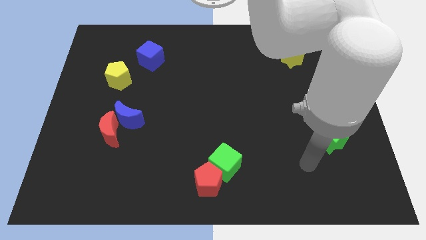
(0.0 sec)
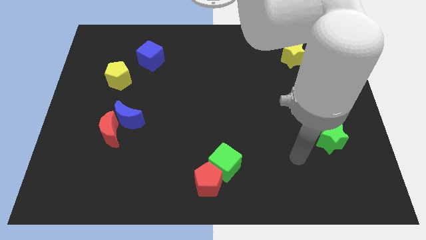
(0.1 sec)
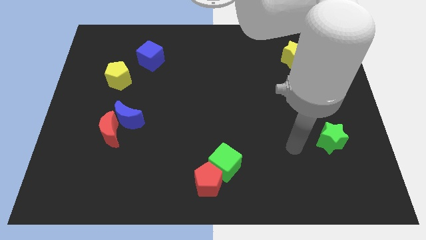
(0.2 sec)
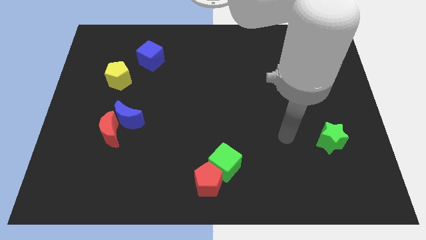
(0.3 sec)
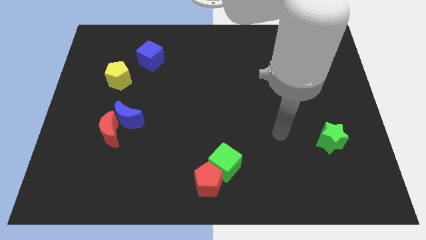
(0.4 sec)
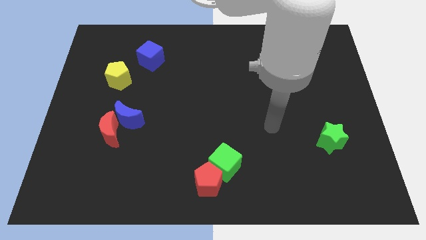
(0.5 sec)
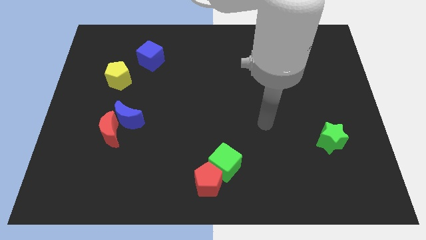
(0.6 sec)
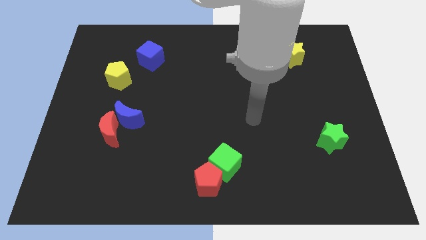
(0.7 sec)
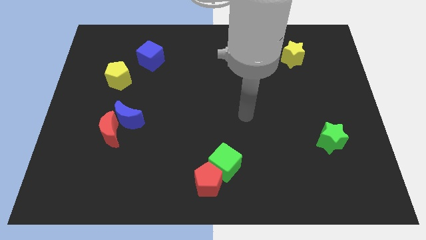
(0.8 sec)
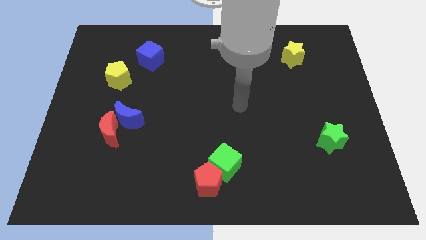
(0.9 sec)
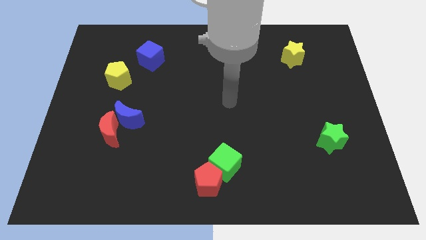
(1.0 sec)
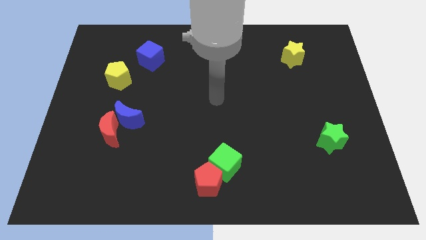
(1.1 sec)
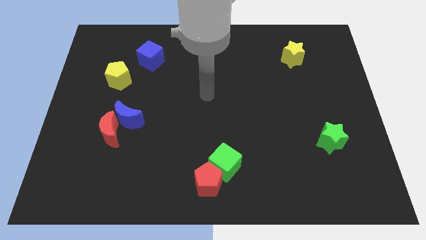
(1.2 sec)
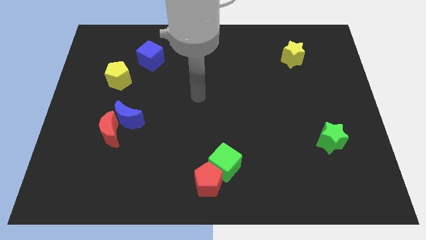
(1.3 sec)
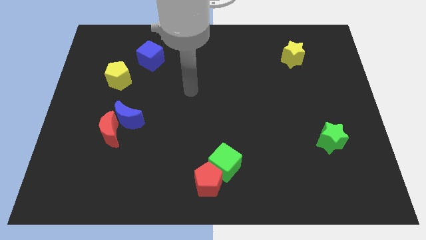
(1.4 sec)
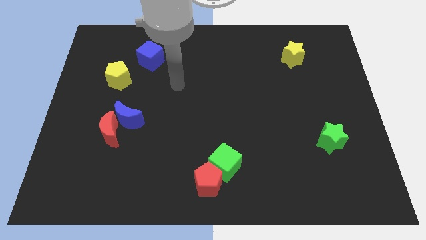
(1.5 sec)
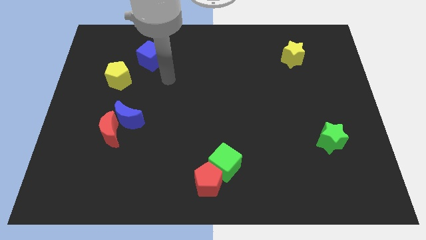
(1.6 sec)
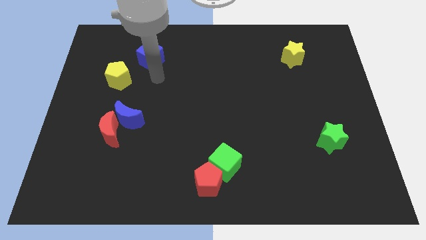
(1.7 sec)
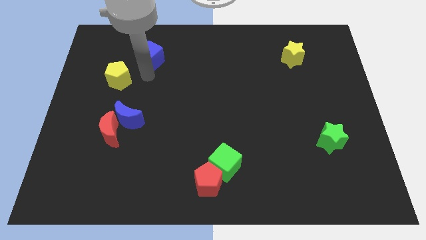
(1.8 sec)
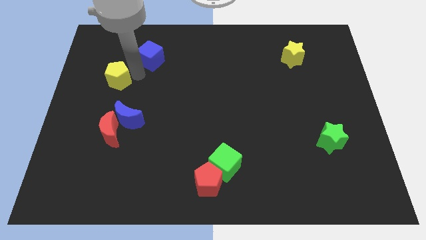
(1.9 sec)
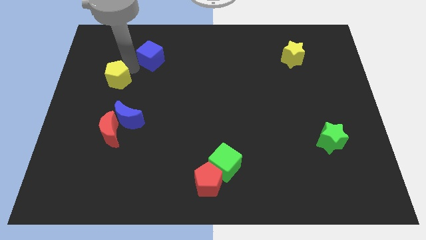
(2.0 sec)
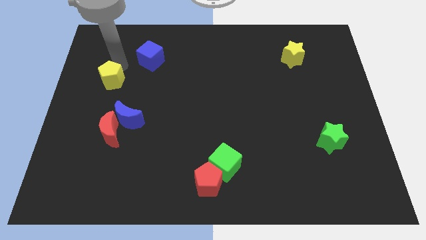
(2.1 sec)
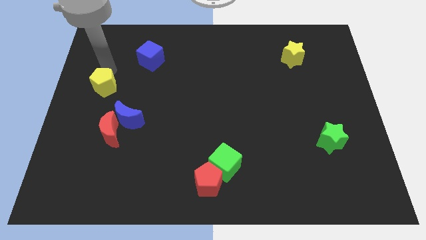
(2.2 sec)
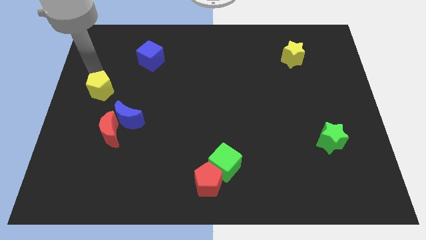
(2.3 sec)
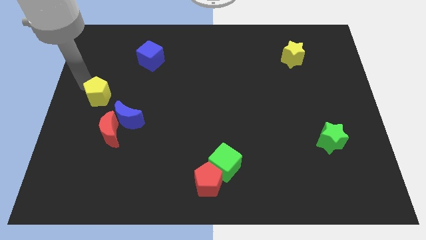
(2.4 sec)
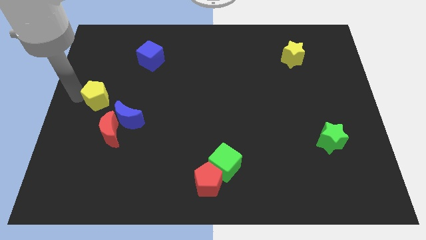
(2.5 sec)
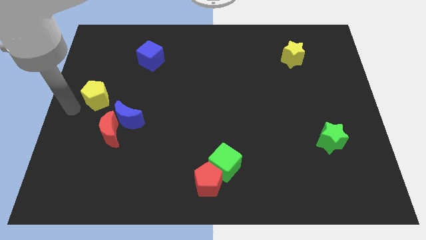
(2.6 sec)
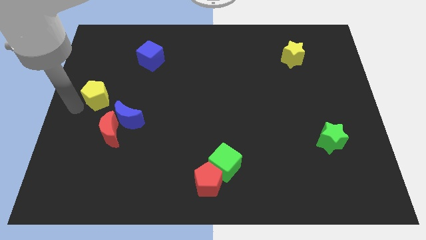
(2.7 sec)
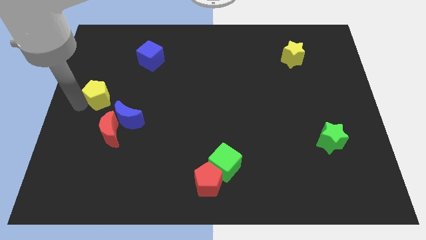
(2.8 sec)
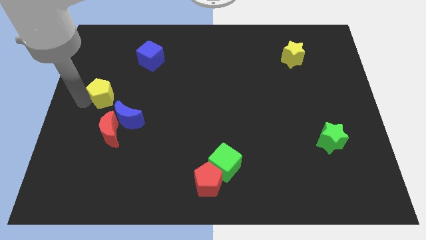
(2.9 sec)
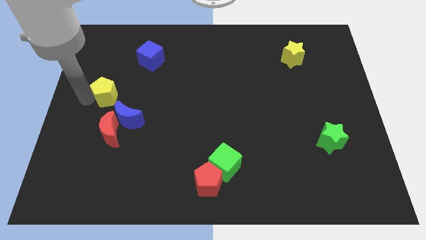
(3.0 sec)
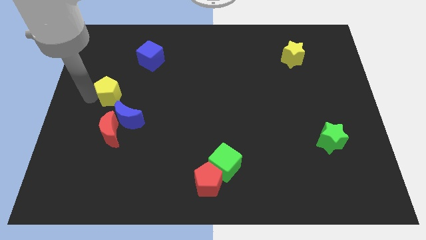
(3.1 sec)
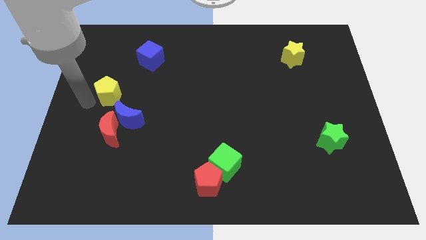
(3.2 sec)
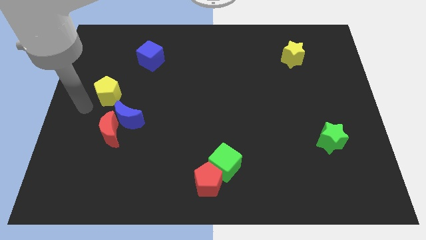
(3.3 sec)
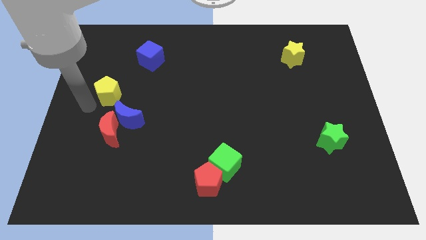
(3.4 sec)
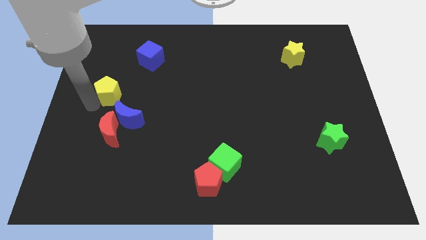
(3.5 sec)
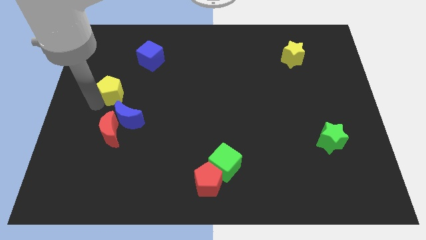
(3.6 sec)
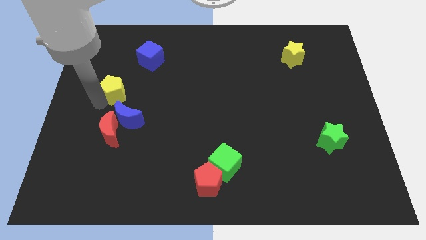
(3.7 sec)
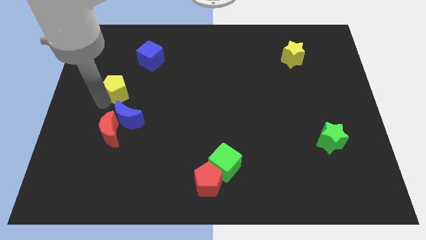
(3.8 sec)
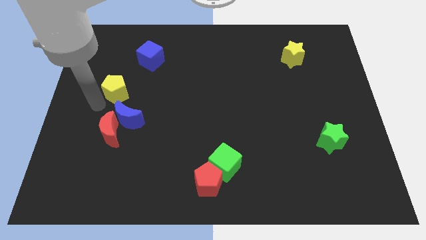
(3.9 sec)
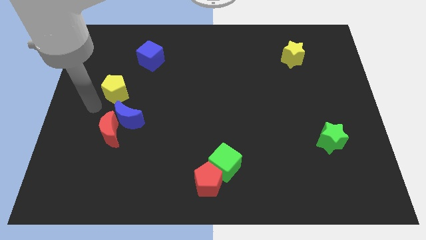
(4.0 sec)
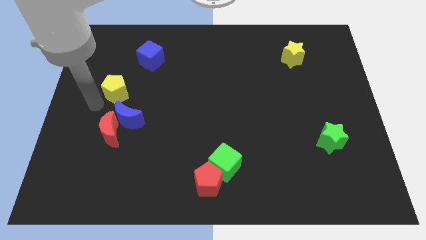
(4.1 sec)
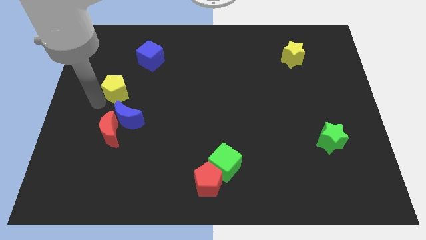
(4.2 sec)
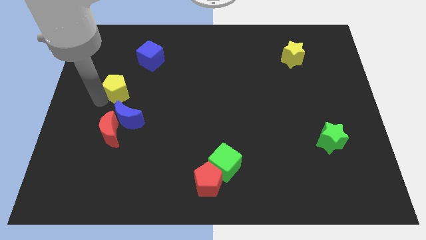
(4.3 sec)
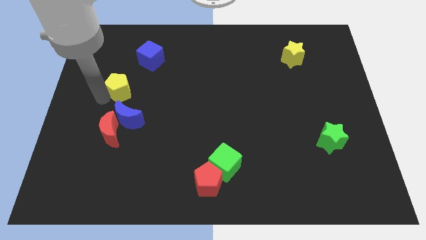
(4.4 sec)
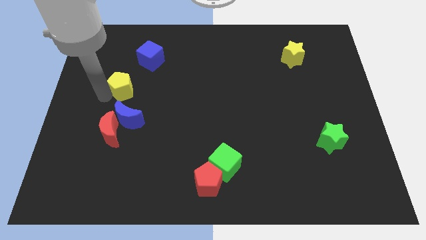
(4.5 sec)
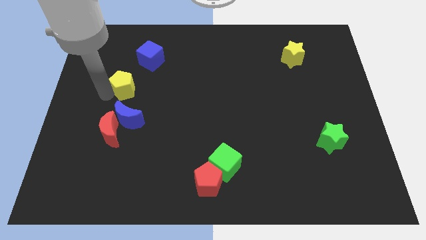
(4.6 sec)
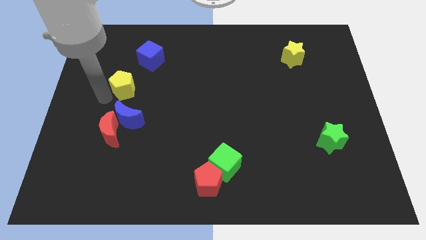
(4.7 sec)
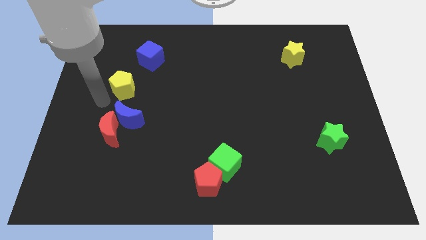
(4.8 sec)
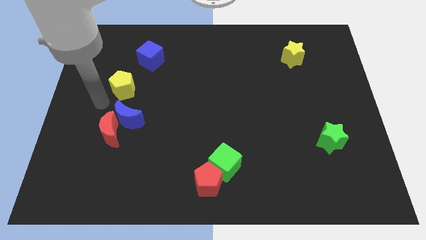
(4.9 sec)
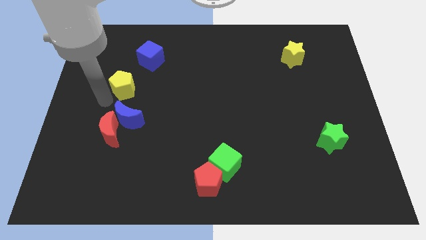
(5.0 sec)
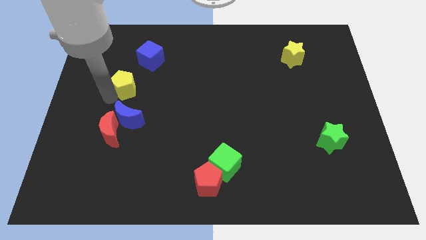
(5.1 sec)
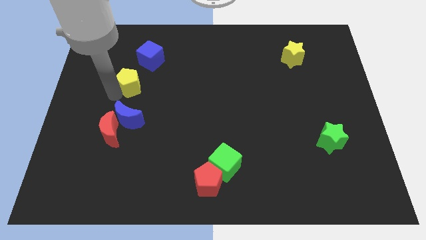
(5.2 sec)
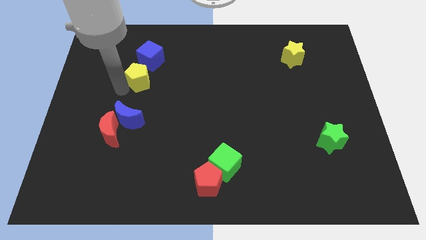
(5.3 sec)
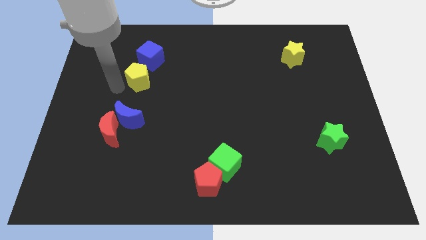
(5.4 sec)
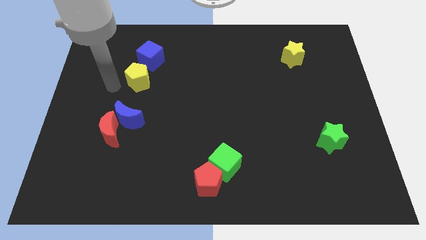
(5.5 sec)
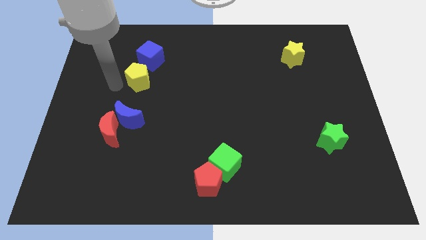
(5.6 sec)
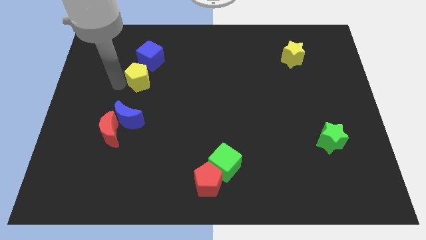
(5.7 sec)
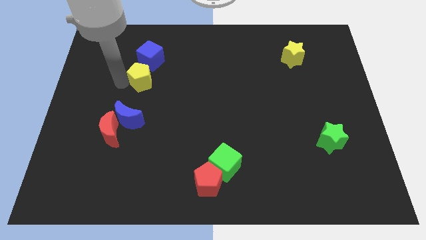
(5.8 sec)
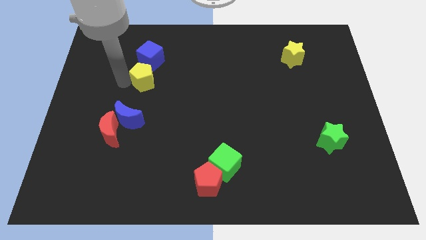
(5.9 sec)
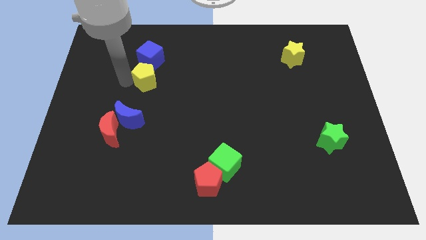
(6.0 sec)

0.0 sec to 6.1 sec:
push the yellow pentagon a little right

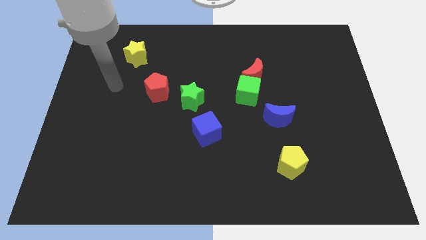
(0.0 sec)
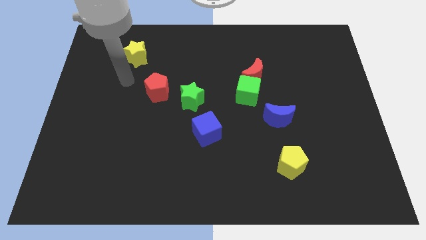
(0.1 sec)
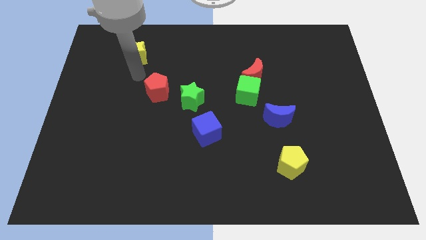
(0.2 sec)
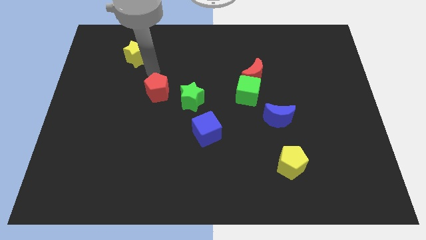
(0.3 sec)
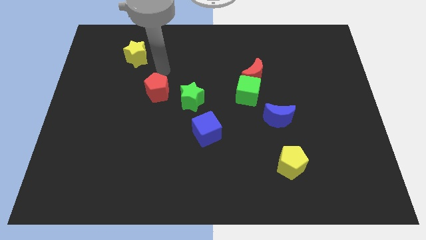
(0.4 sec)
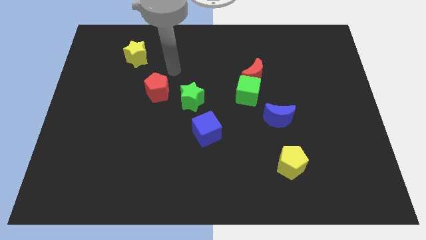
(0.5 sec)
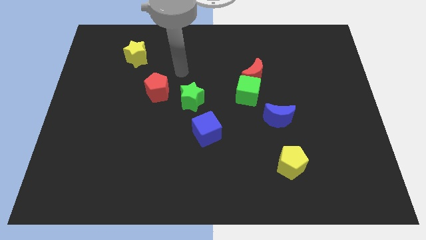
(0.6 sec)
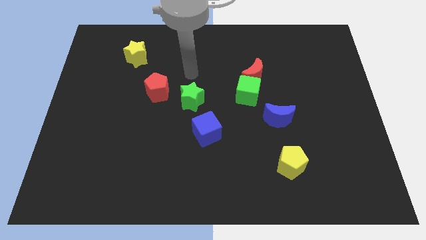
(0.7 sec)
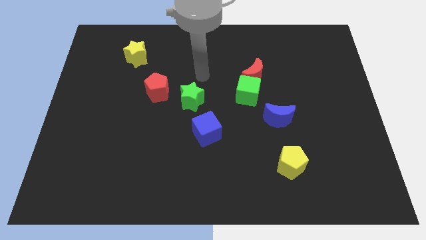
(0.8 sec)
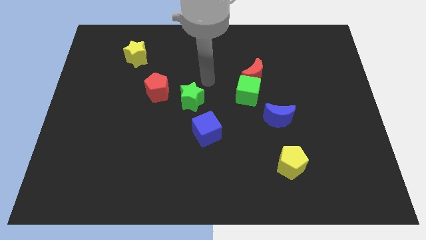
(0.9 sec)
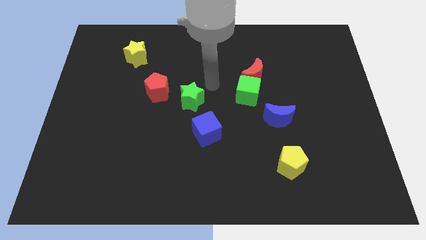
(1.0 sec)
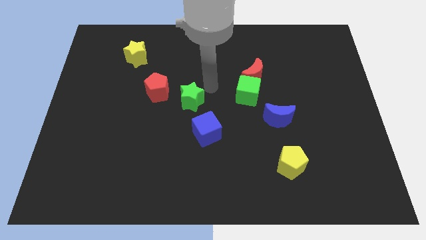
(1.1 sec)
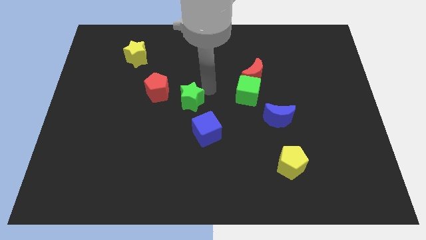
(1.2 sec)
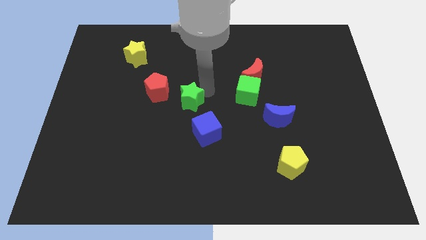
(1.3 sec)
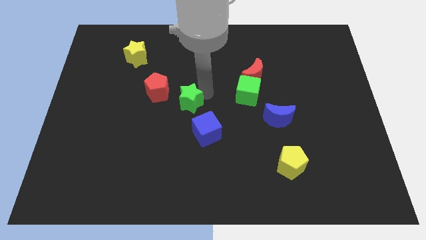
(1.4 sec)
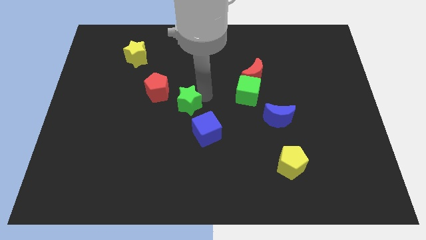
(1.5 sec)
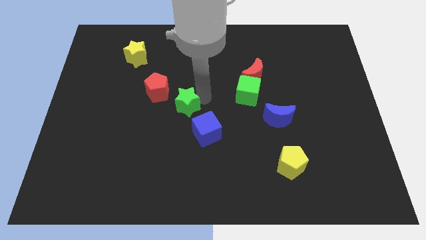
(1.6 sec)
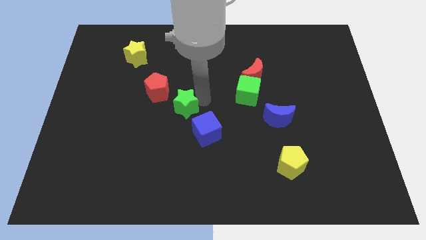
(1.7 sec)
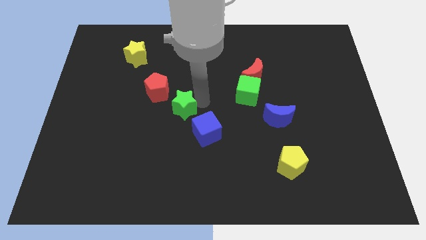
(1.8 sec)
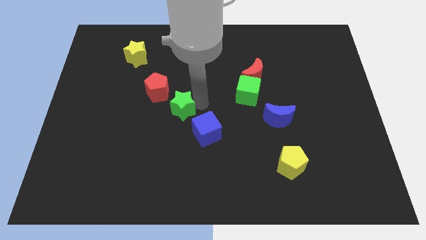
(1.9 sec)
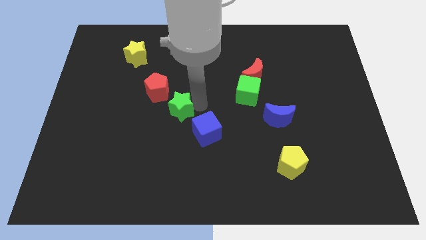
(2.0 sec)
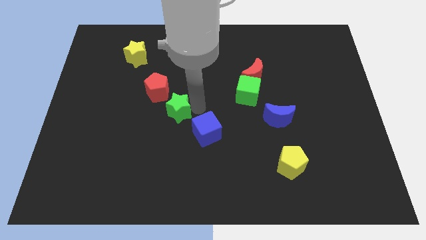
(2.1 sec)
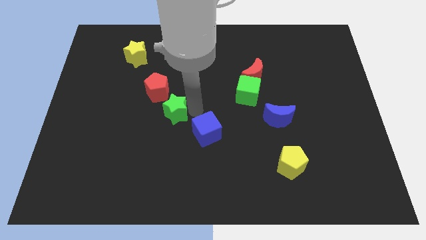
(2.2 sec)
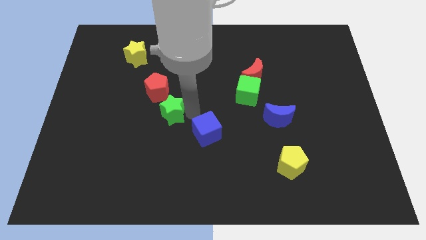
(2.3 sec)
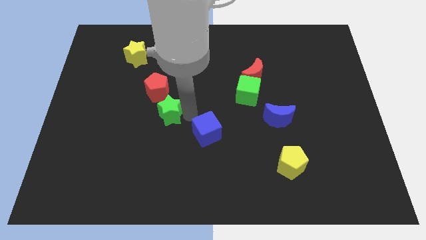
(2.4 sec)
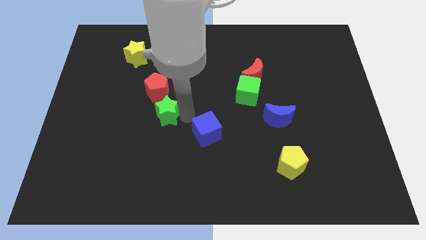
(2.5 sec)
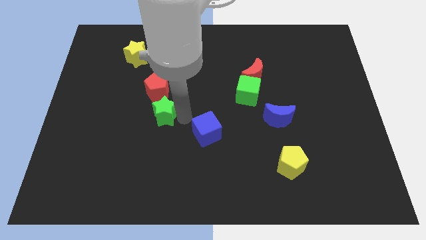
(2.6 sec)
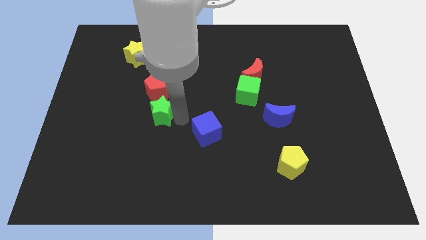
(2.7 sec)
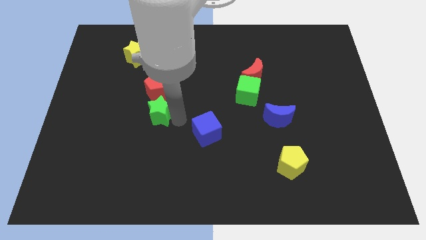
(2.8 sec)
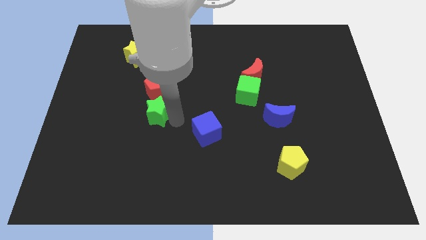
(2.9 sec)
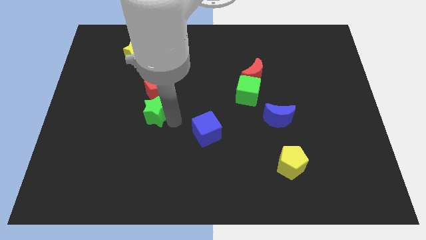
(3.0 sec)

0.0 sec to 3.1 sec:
push the green star left a little
